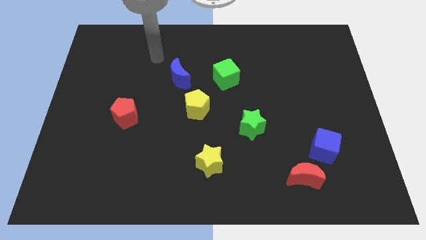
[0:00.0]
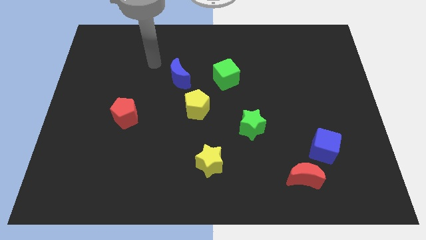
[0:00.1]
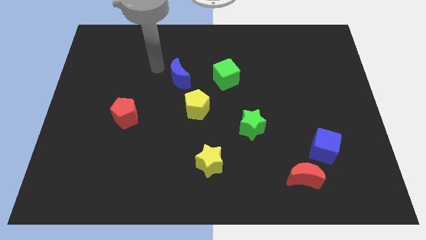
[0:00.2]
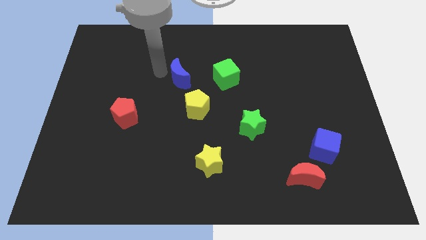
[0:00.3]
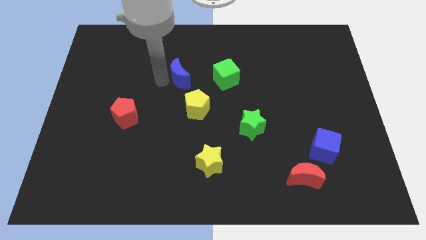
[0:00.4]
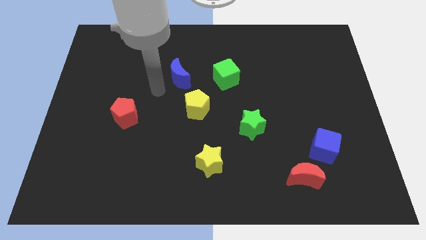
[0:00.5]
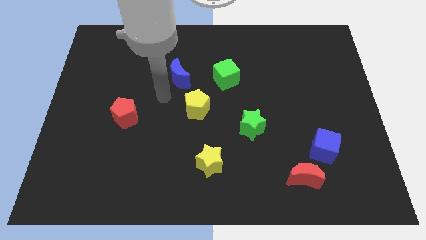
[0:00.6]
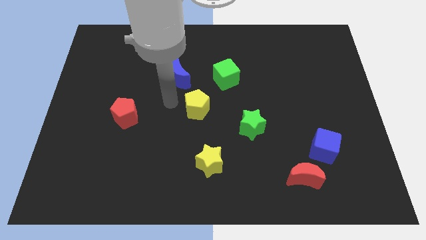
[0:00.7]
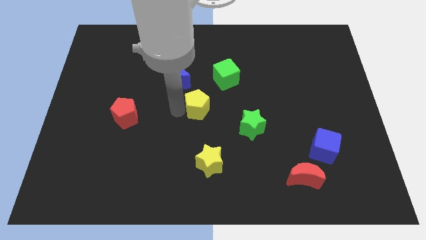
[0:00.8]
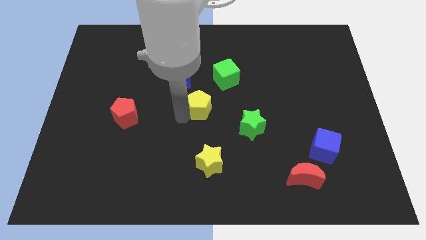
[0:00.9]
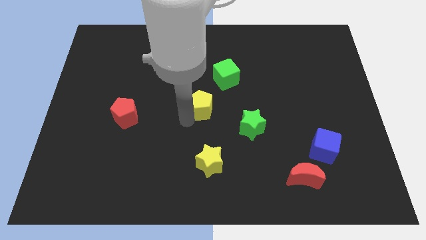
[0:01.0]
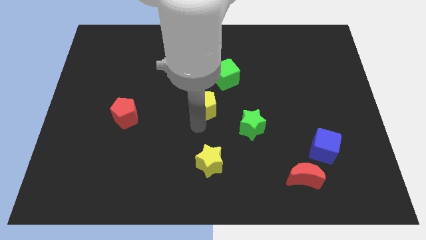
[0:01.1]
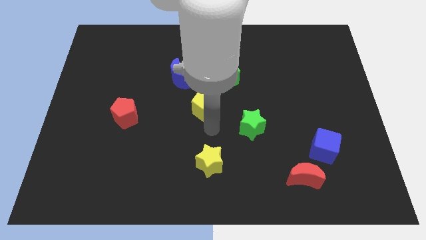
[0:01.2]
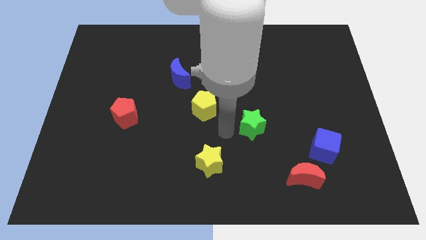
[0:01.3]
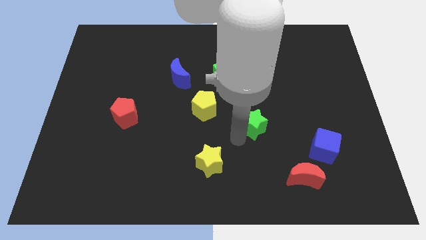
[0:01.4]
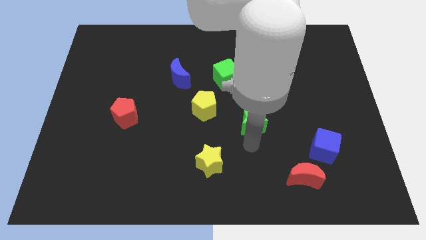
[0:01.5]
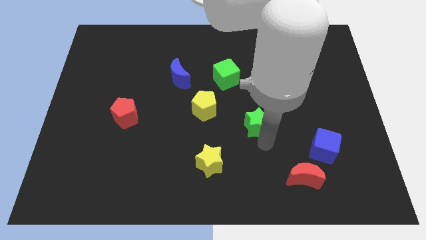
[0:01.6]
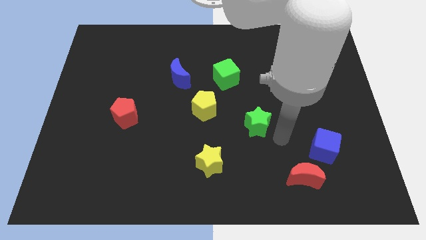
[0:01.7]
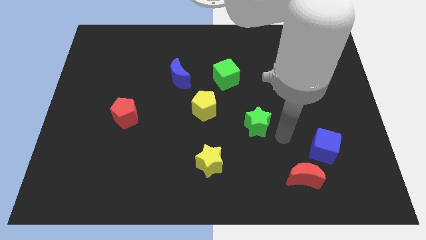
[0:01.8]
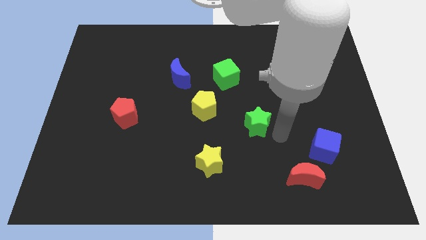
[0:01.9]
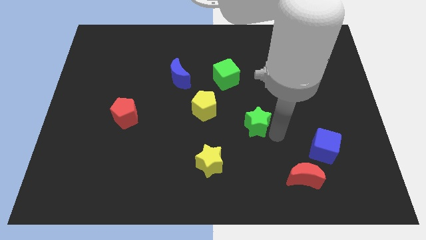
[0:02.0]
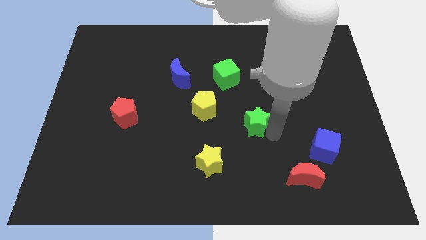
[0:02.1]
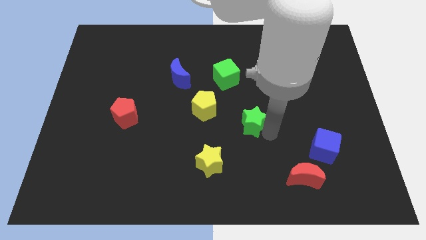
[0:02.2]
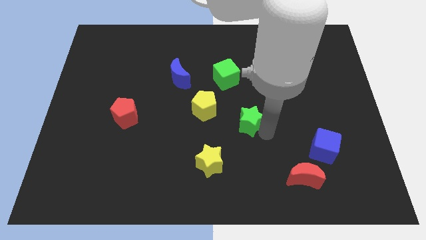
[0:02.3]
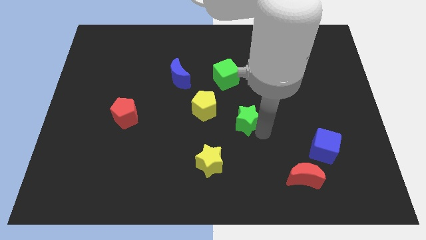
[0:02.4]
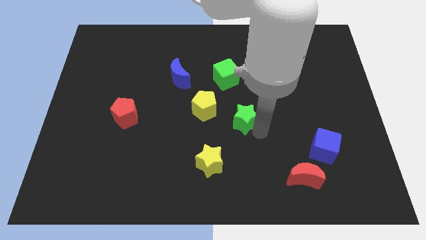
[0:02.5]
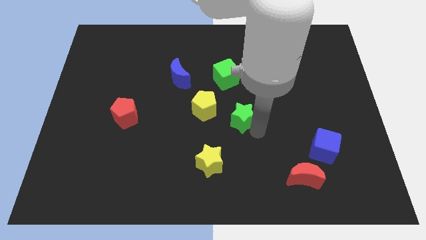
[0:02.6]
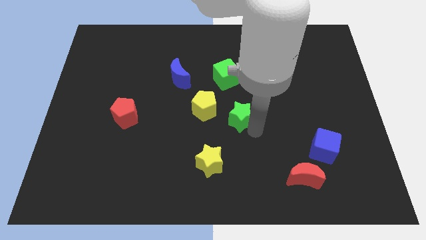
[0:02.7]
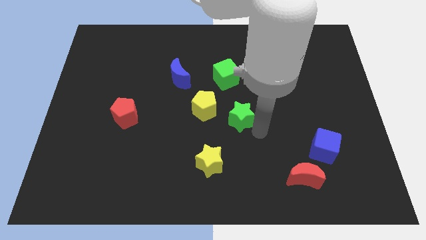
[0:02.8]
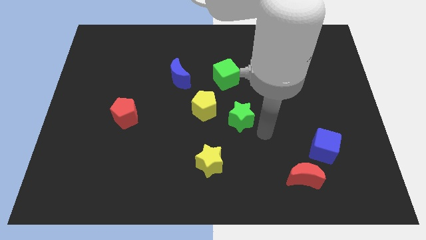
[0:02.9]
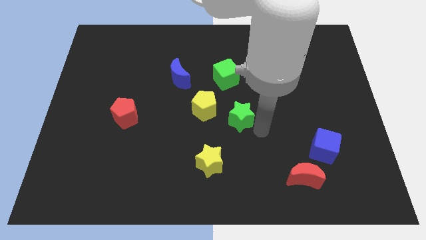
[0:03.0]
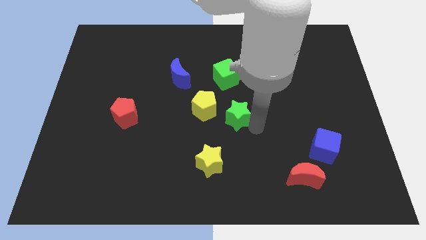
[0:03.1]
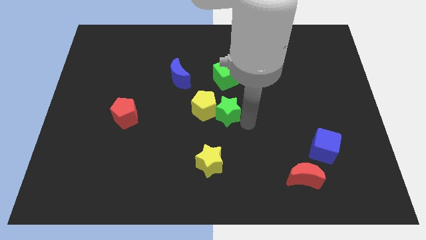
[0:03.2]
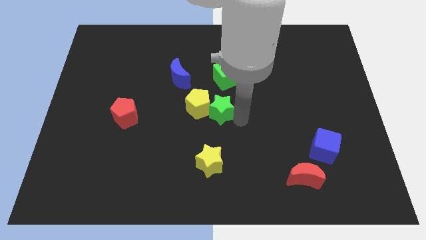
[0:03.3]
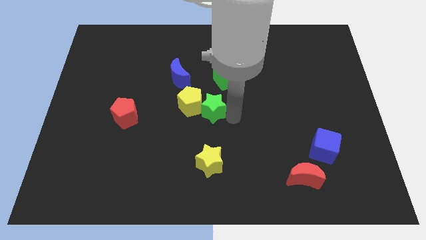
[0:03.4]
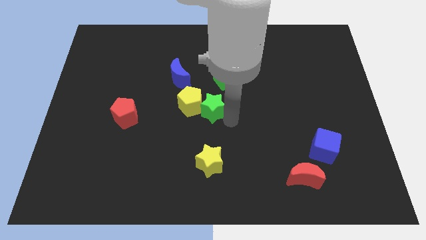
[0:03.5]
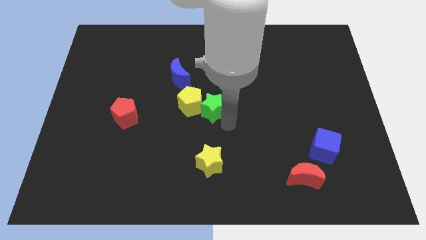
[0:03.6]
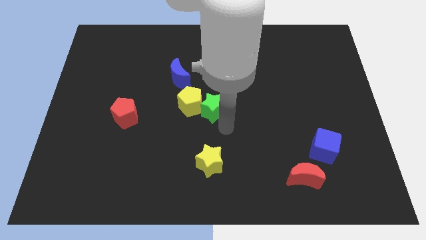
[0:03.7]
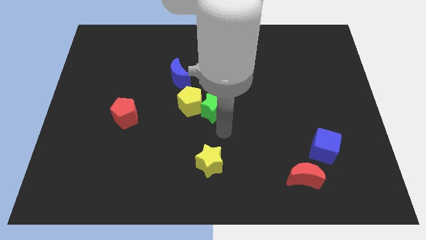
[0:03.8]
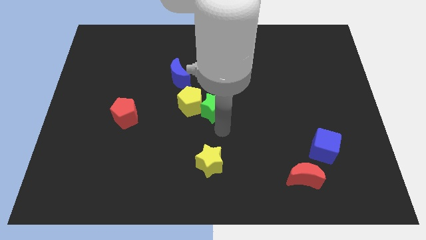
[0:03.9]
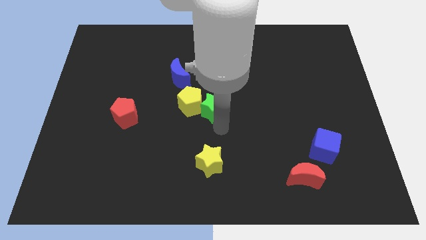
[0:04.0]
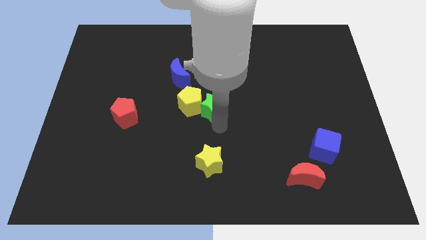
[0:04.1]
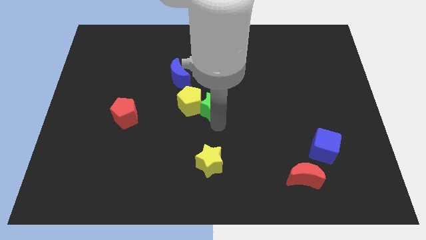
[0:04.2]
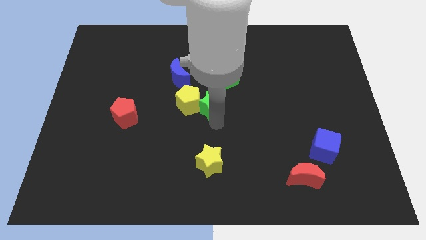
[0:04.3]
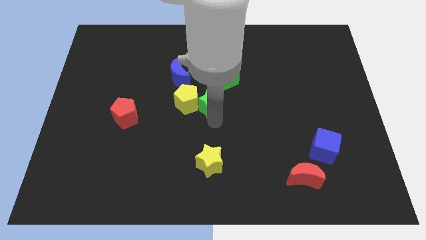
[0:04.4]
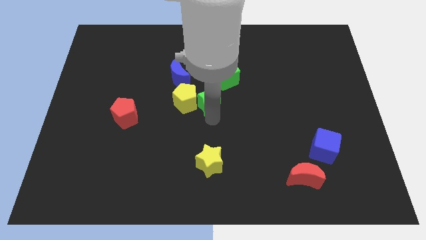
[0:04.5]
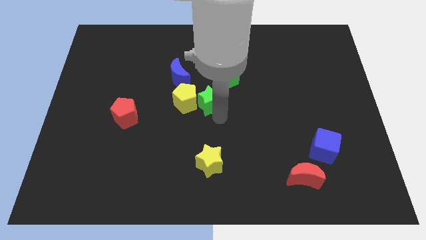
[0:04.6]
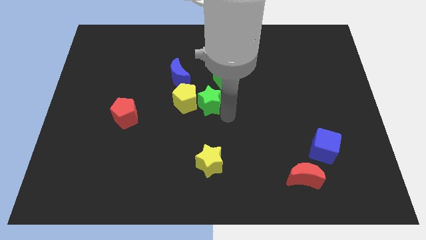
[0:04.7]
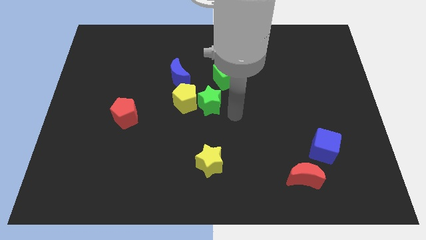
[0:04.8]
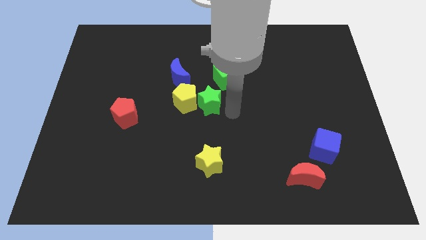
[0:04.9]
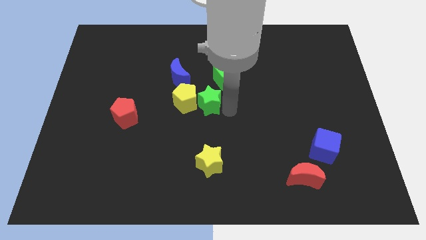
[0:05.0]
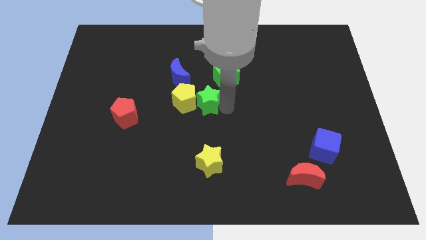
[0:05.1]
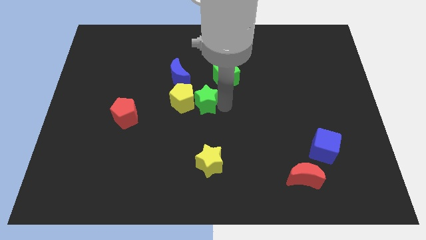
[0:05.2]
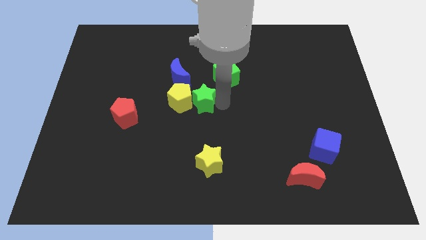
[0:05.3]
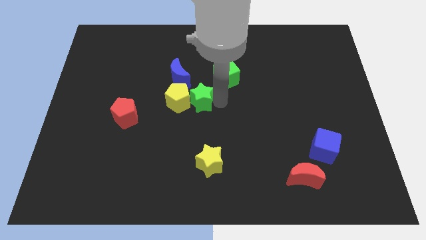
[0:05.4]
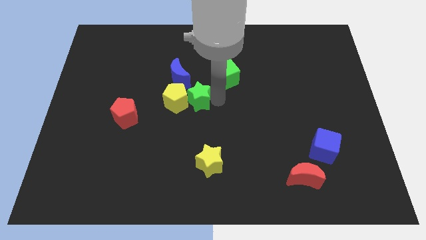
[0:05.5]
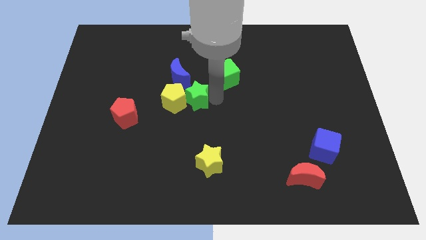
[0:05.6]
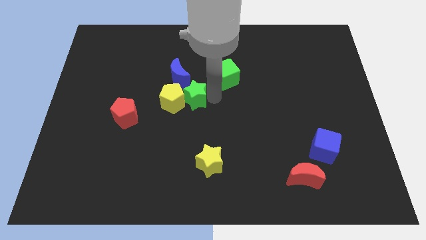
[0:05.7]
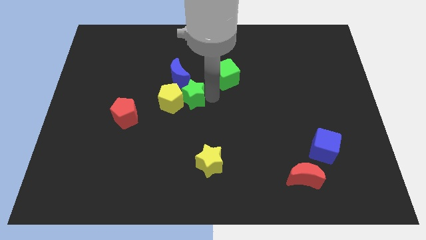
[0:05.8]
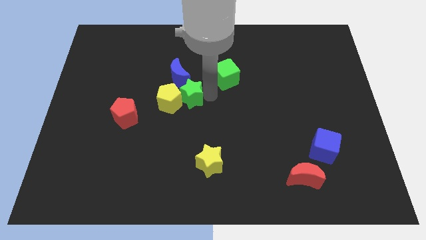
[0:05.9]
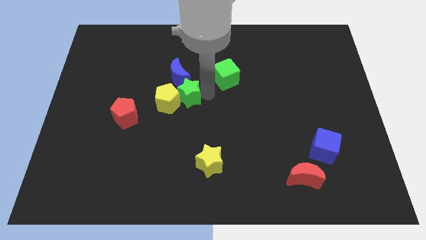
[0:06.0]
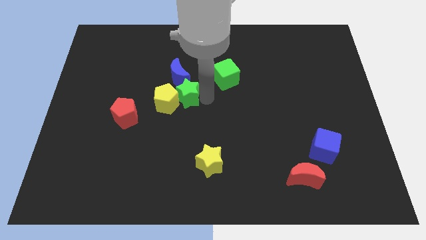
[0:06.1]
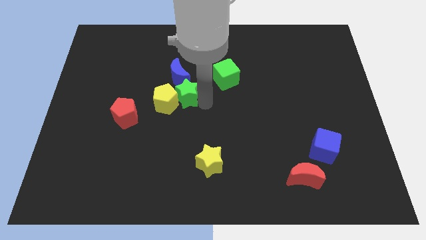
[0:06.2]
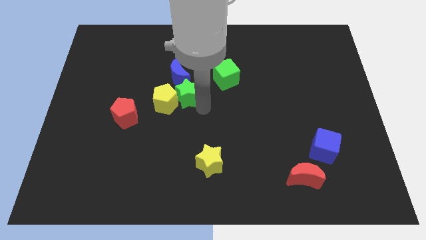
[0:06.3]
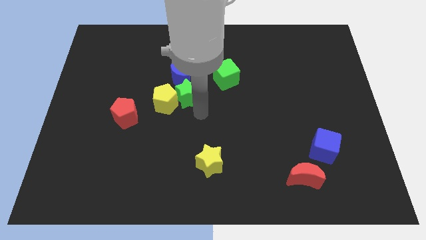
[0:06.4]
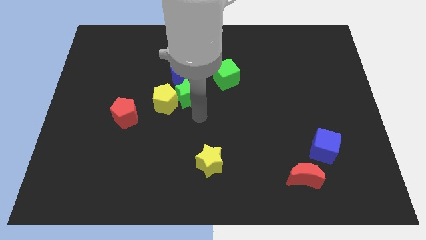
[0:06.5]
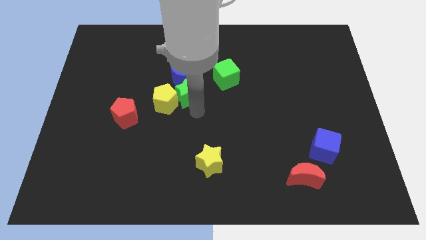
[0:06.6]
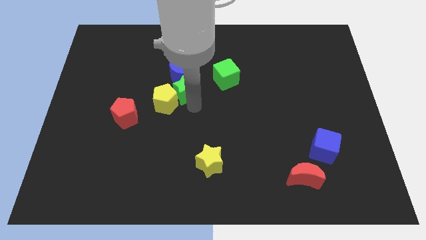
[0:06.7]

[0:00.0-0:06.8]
slide the green star towards the blue moon

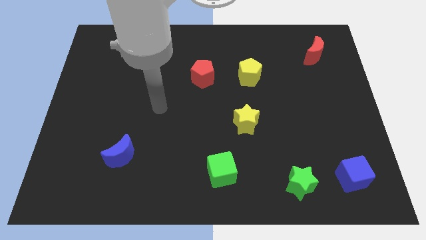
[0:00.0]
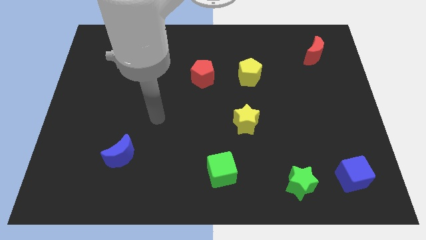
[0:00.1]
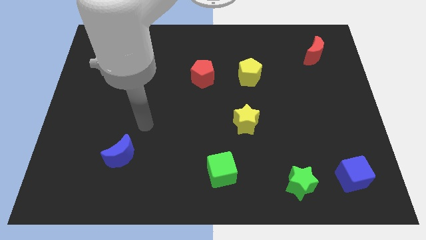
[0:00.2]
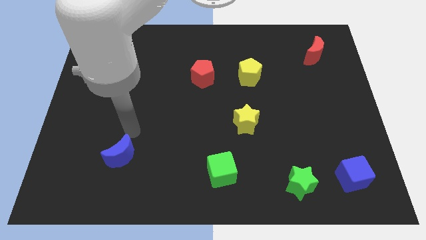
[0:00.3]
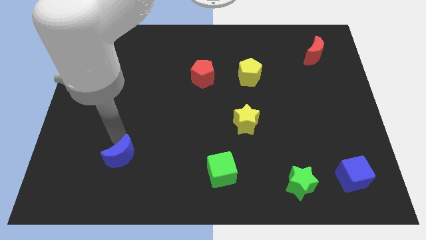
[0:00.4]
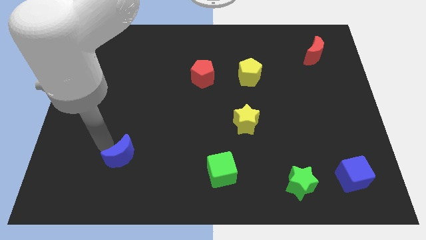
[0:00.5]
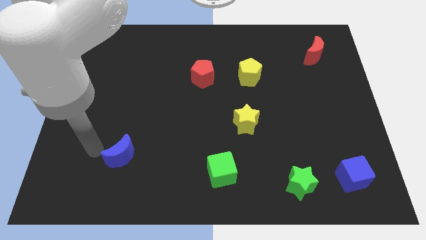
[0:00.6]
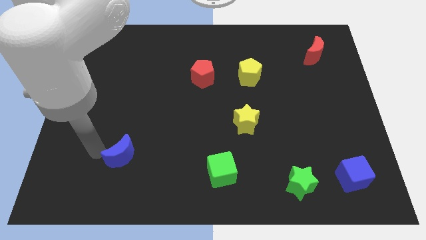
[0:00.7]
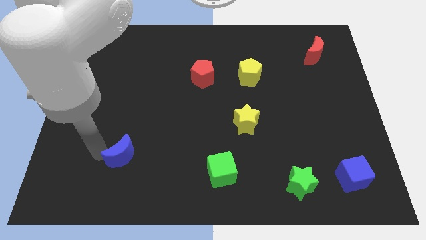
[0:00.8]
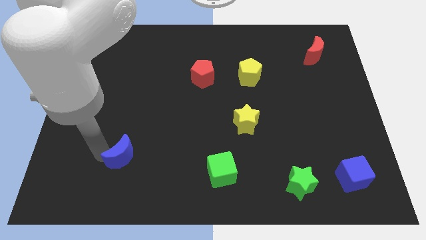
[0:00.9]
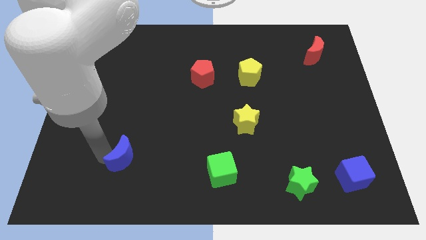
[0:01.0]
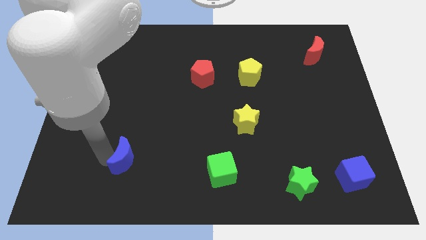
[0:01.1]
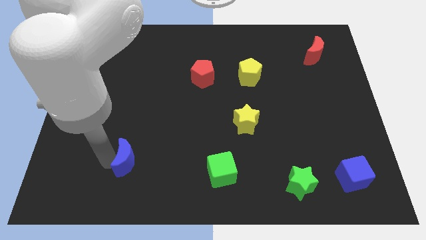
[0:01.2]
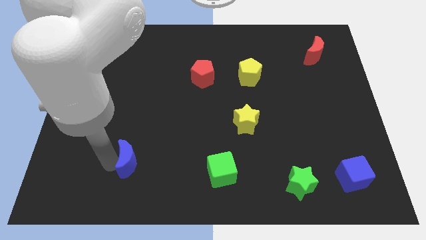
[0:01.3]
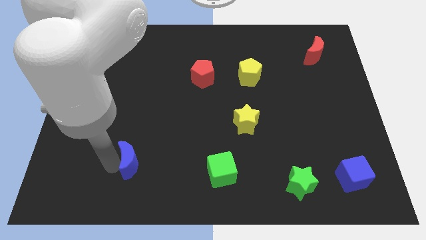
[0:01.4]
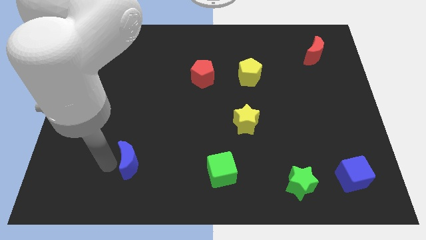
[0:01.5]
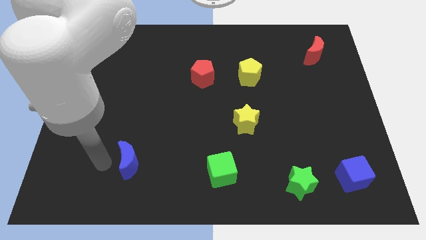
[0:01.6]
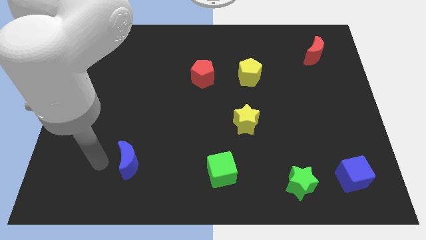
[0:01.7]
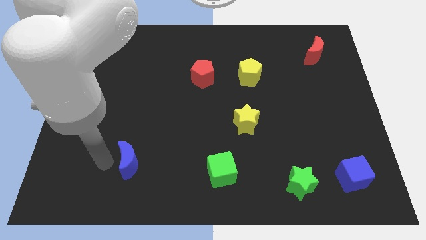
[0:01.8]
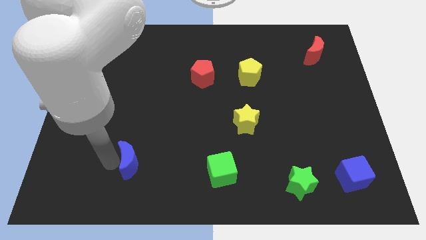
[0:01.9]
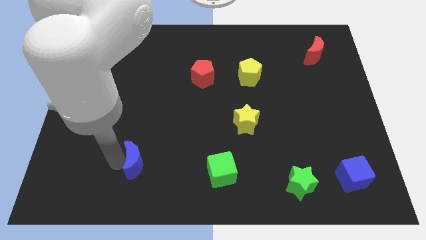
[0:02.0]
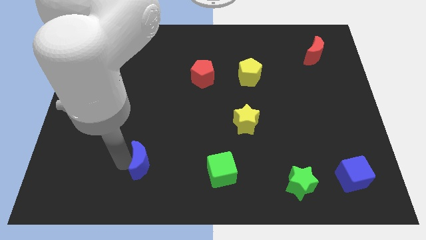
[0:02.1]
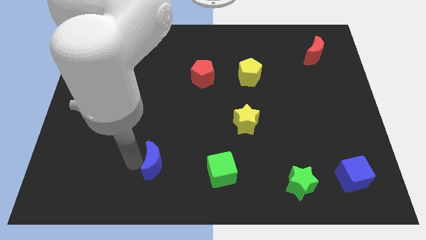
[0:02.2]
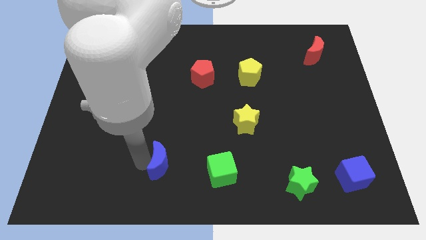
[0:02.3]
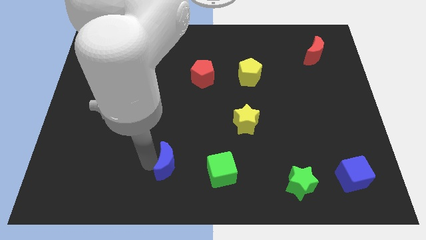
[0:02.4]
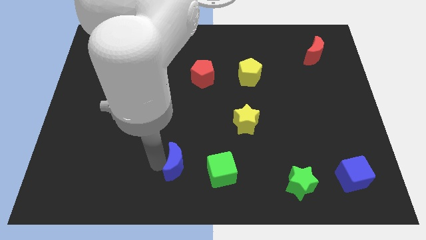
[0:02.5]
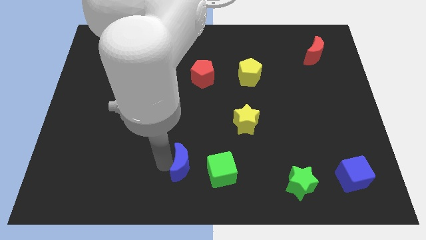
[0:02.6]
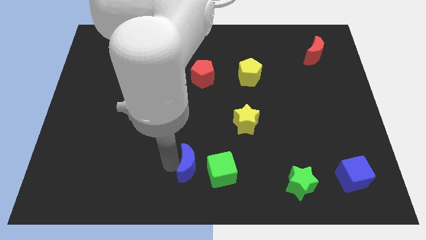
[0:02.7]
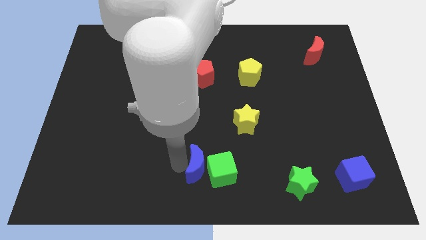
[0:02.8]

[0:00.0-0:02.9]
put the blue moon towards the green cube
